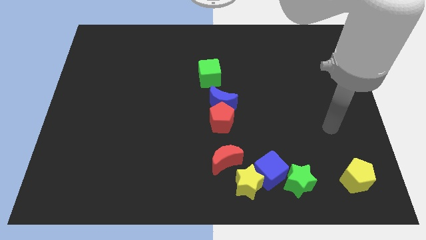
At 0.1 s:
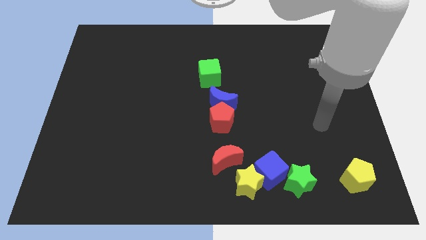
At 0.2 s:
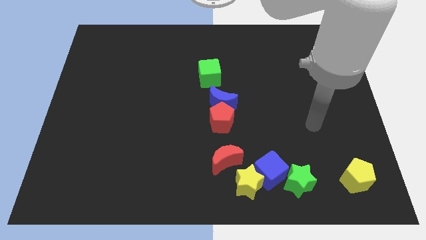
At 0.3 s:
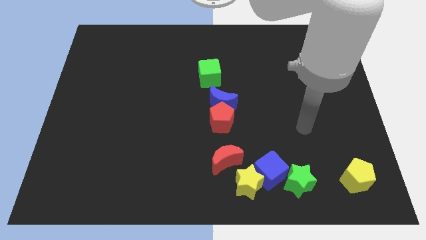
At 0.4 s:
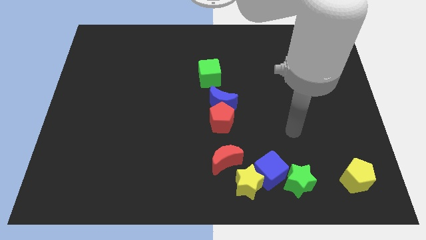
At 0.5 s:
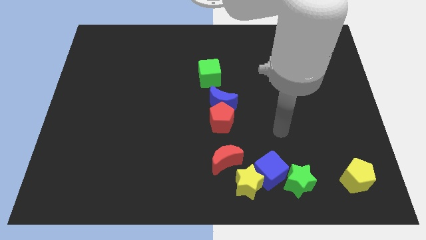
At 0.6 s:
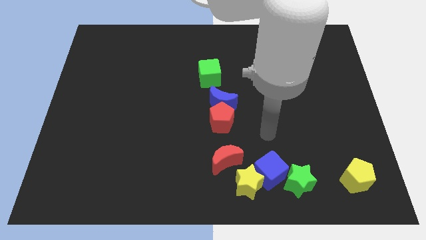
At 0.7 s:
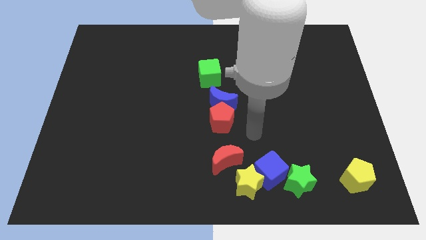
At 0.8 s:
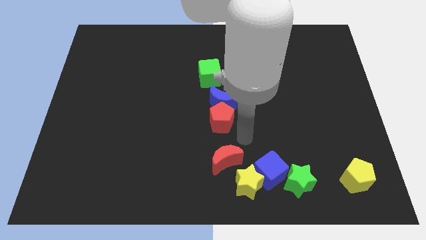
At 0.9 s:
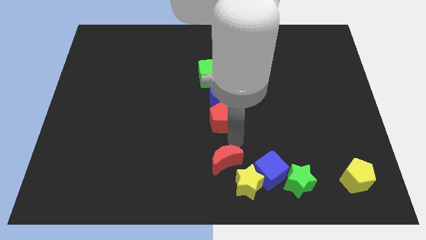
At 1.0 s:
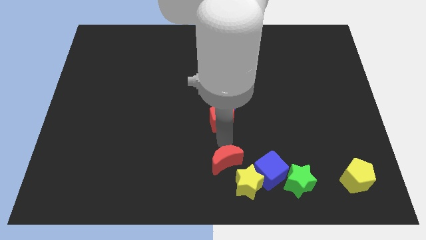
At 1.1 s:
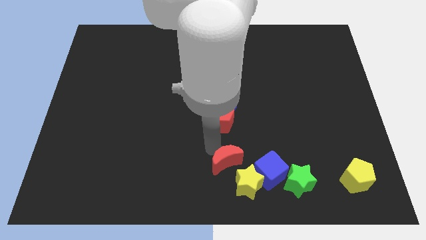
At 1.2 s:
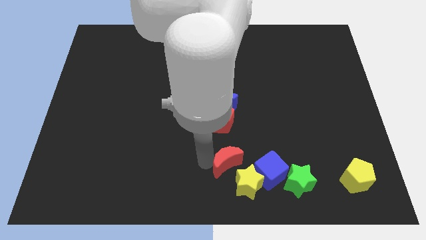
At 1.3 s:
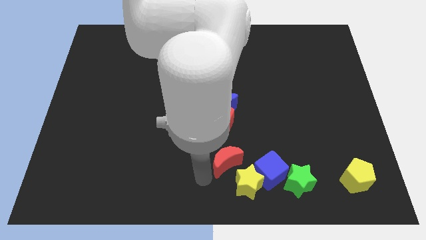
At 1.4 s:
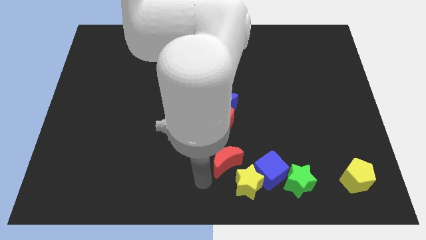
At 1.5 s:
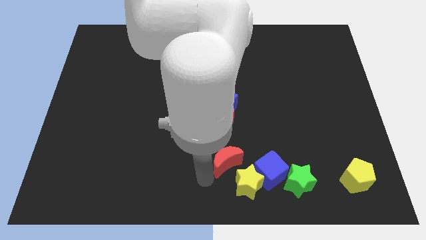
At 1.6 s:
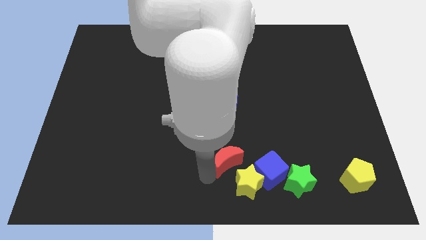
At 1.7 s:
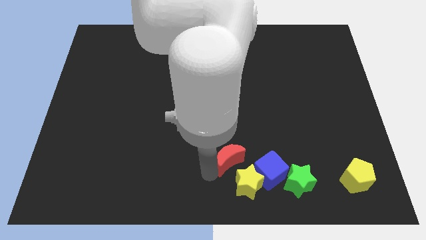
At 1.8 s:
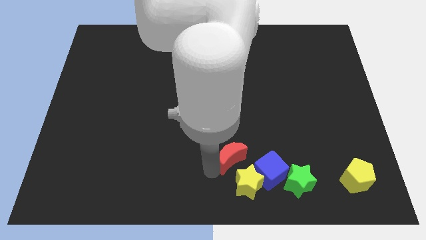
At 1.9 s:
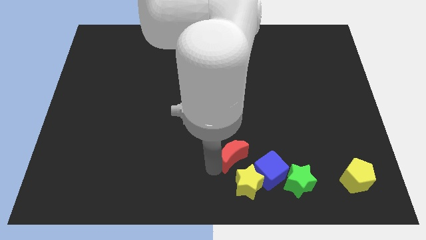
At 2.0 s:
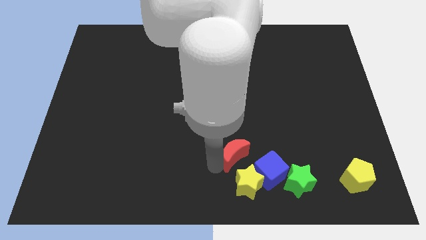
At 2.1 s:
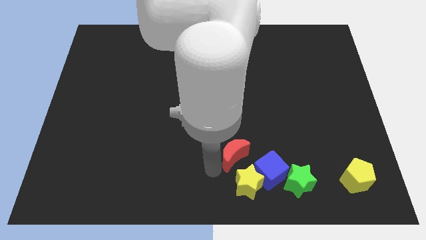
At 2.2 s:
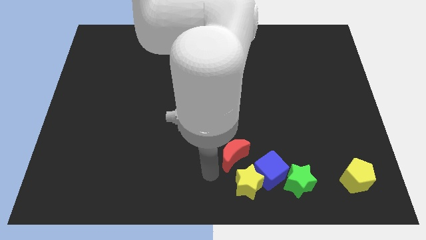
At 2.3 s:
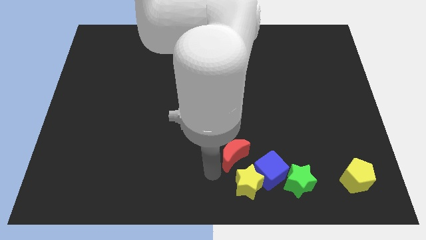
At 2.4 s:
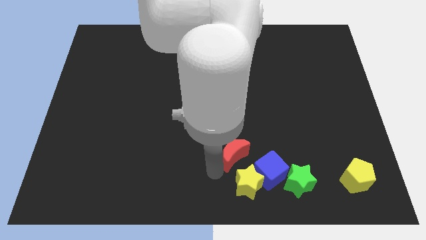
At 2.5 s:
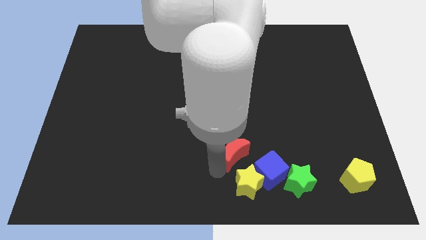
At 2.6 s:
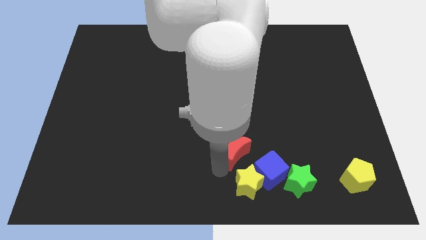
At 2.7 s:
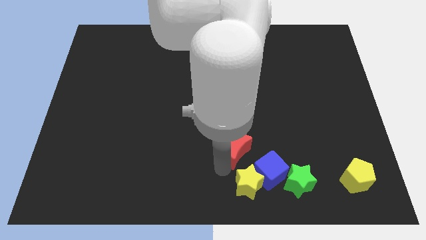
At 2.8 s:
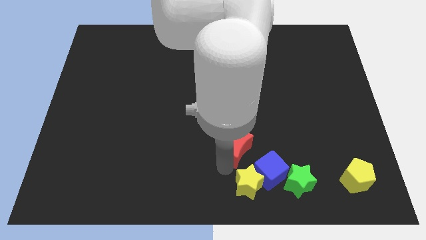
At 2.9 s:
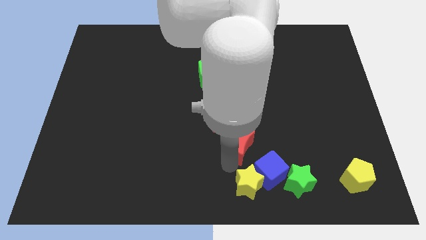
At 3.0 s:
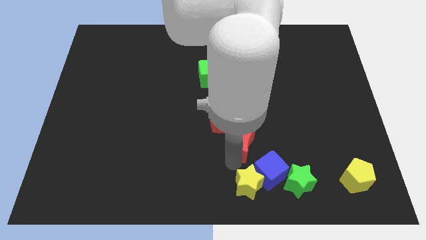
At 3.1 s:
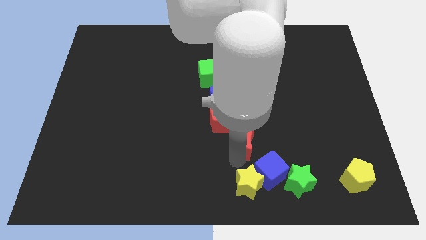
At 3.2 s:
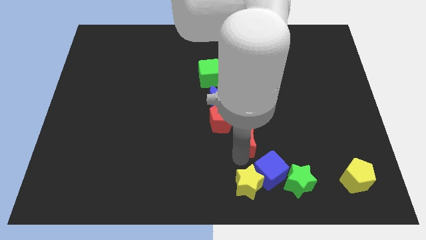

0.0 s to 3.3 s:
slightly move the red moon upwards and to the right

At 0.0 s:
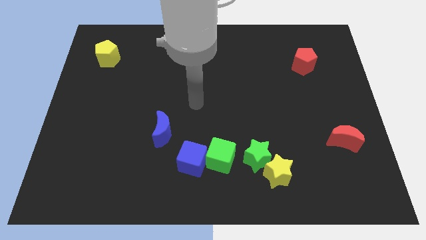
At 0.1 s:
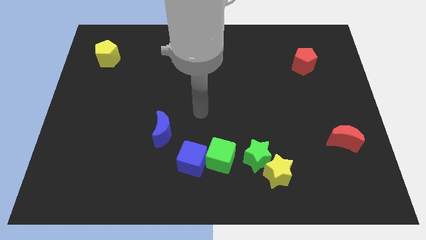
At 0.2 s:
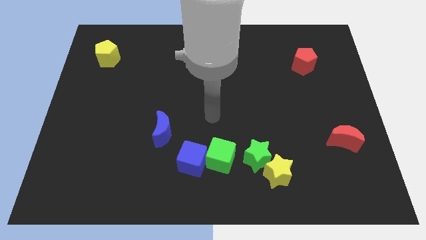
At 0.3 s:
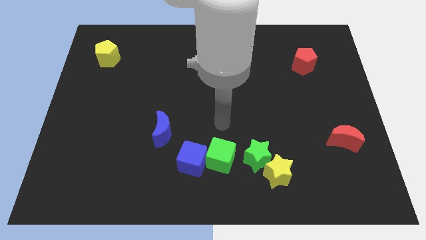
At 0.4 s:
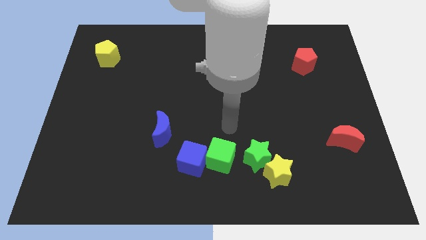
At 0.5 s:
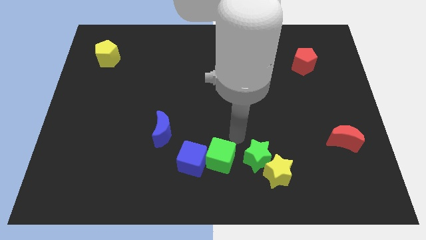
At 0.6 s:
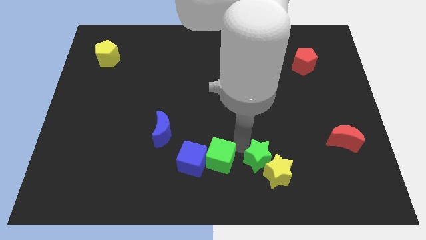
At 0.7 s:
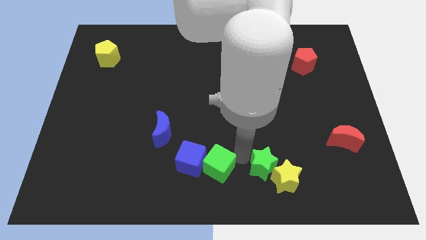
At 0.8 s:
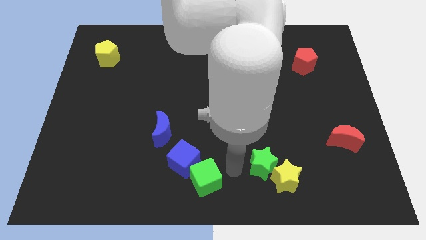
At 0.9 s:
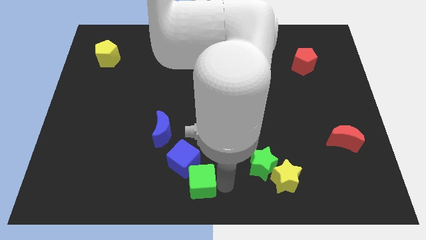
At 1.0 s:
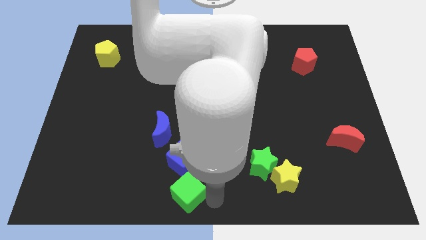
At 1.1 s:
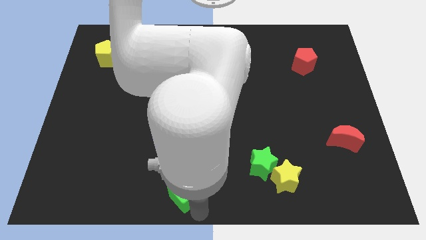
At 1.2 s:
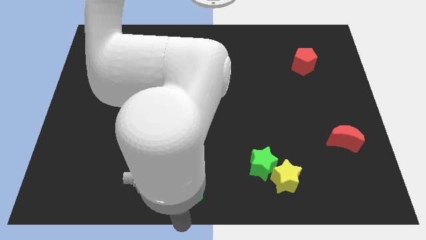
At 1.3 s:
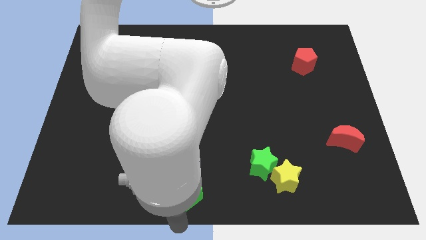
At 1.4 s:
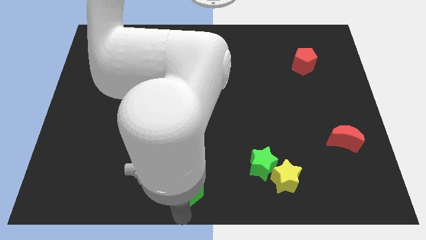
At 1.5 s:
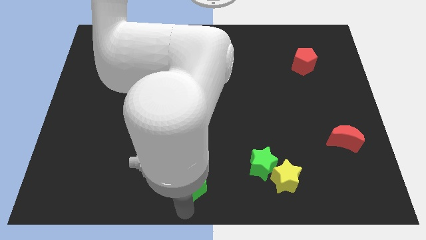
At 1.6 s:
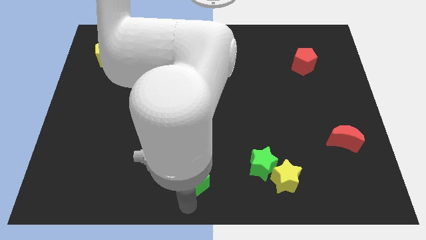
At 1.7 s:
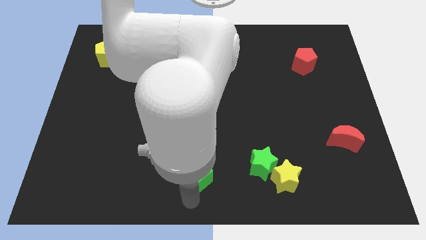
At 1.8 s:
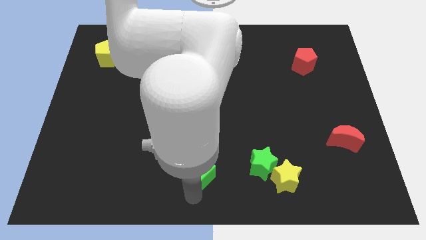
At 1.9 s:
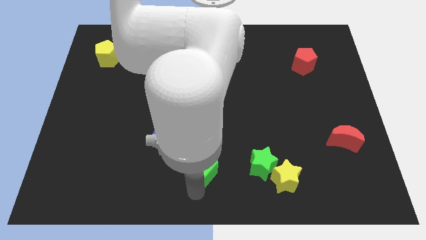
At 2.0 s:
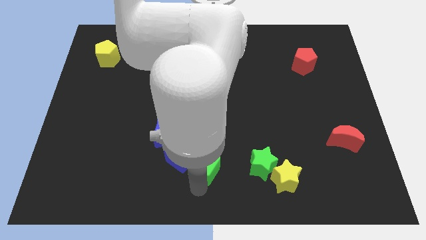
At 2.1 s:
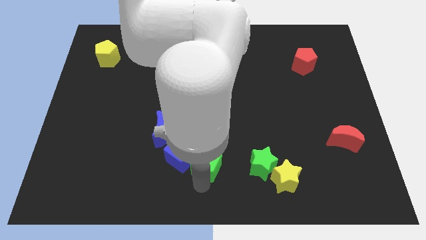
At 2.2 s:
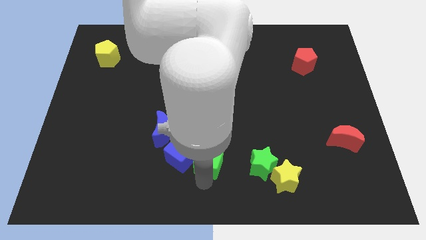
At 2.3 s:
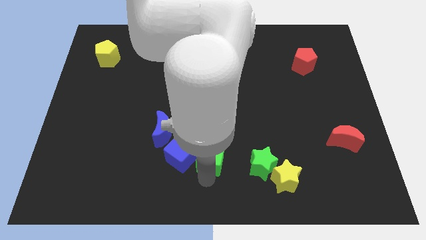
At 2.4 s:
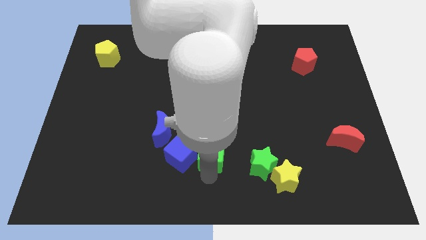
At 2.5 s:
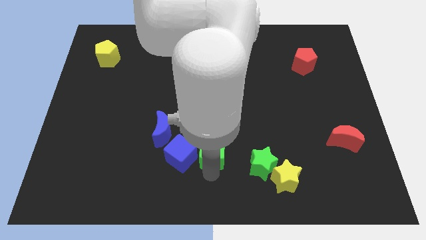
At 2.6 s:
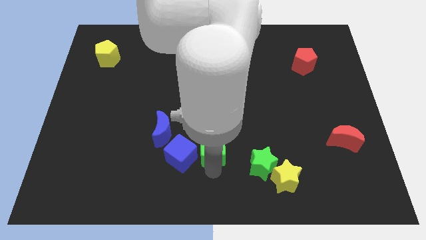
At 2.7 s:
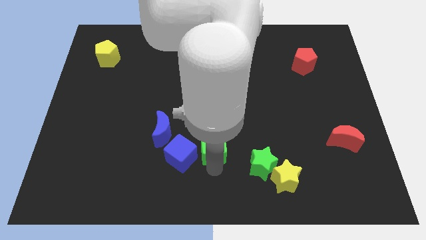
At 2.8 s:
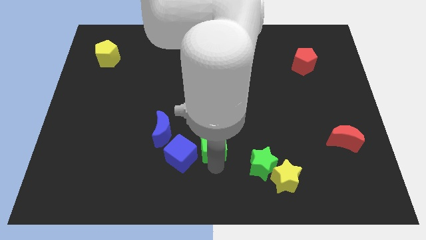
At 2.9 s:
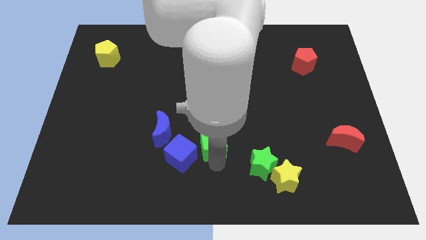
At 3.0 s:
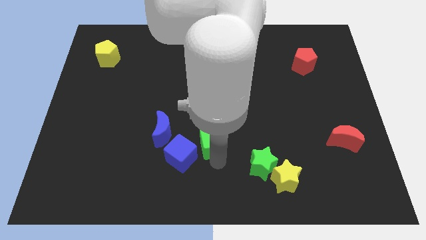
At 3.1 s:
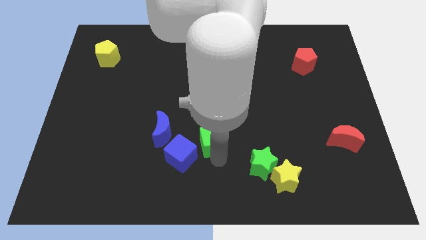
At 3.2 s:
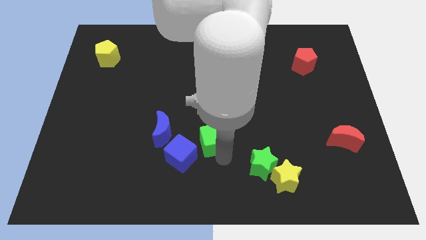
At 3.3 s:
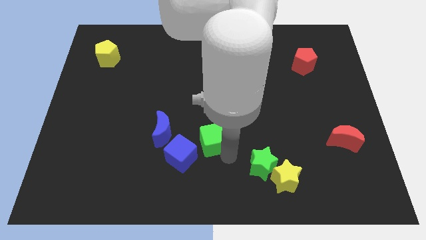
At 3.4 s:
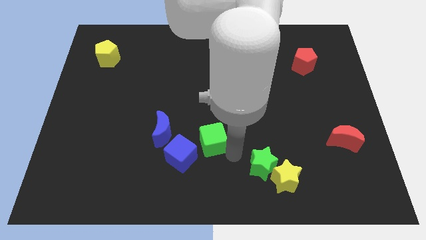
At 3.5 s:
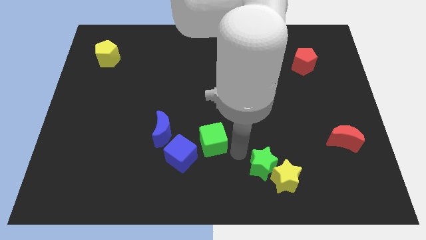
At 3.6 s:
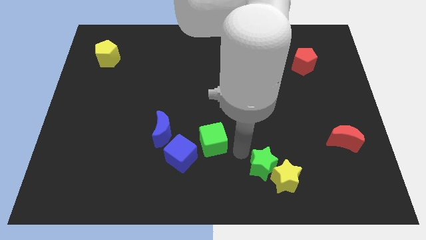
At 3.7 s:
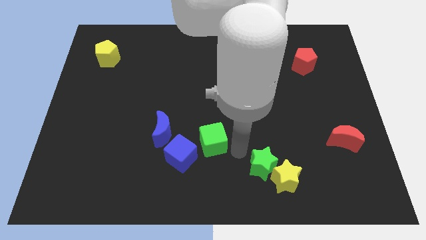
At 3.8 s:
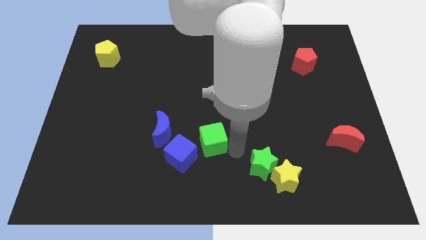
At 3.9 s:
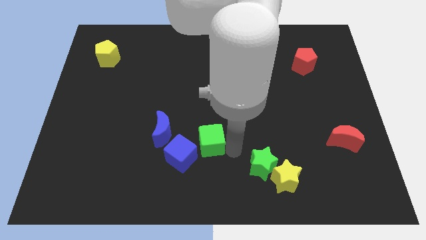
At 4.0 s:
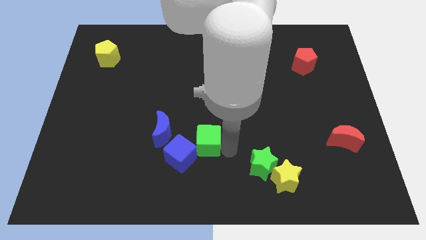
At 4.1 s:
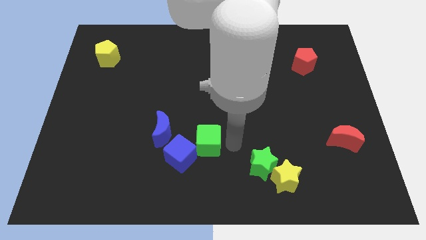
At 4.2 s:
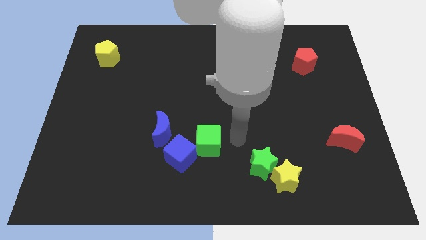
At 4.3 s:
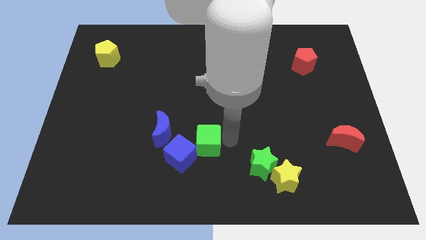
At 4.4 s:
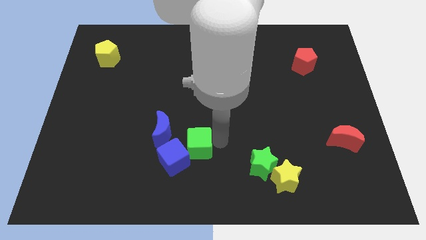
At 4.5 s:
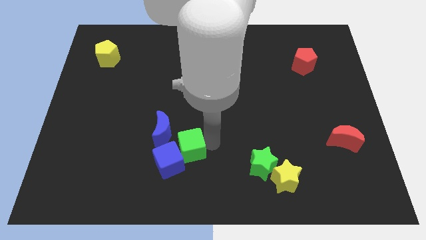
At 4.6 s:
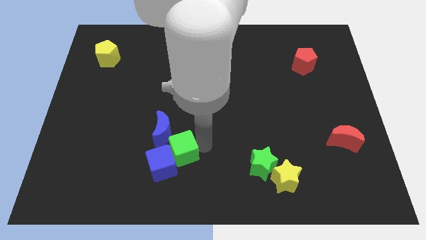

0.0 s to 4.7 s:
push the green cube a little bit to the left

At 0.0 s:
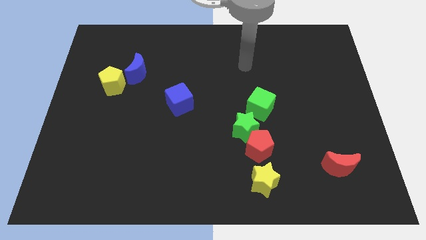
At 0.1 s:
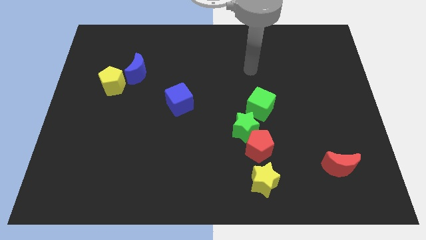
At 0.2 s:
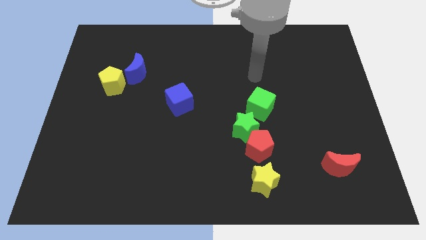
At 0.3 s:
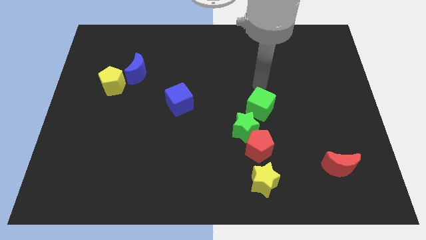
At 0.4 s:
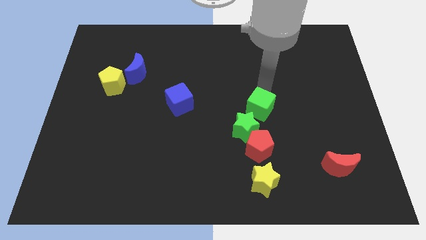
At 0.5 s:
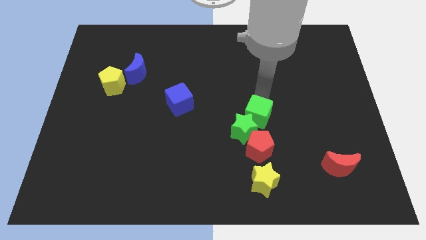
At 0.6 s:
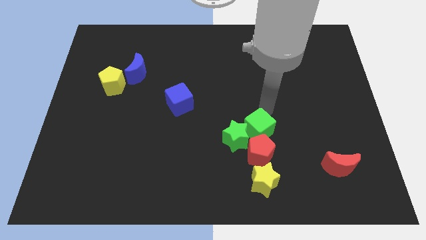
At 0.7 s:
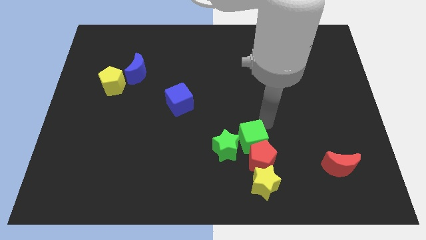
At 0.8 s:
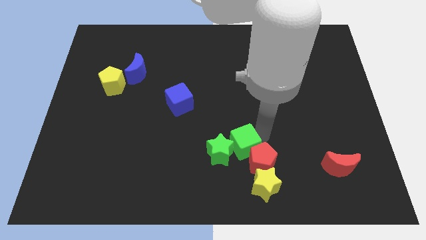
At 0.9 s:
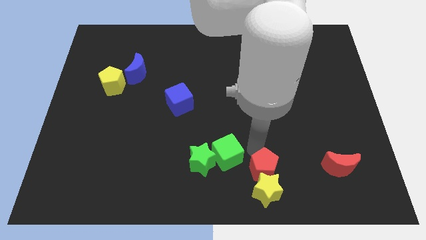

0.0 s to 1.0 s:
slightly push the green star left
